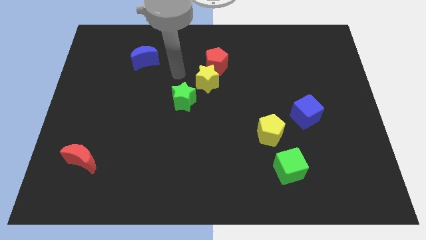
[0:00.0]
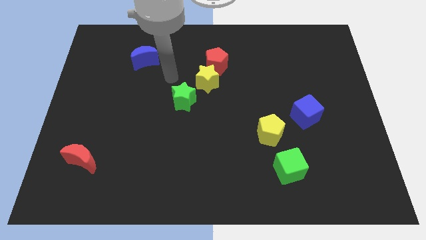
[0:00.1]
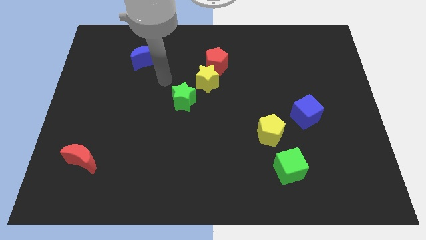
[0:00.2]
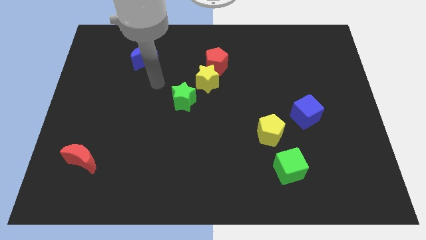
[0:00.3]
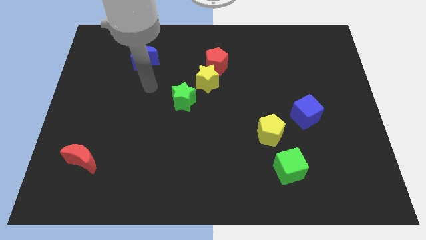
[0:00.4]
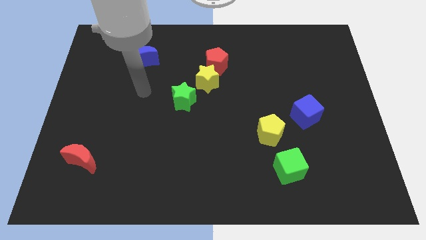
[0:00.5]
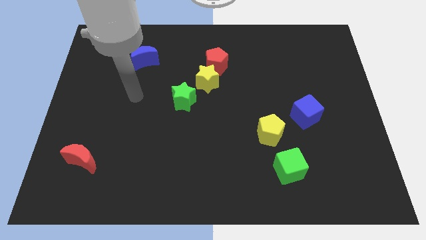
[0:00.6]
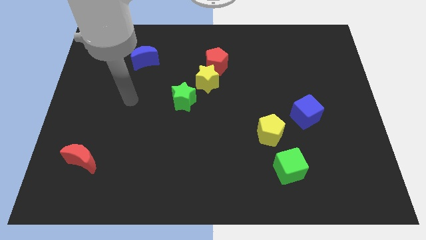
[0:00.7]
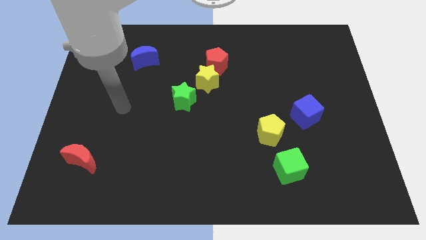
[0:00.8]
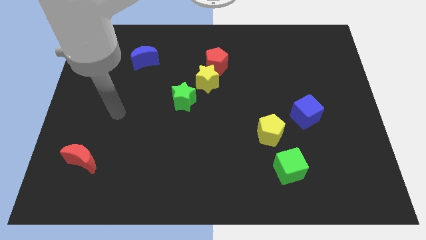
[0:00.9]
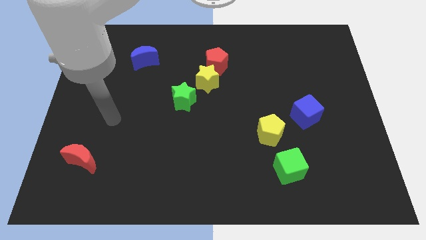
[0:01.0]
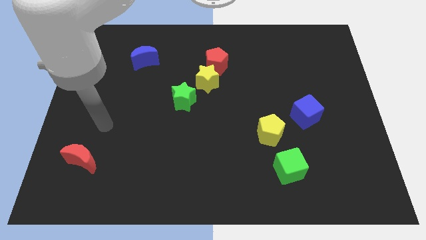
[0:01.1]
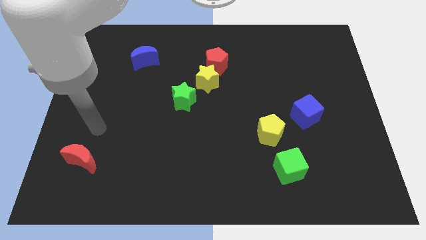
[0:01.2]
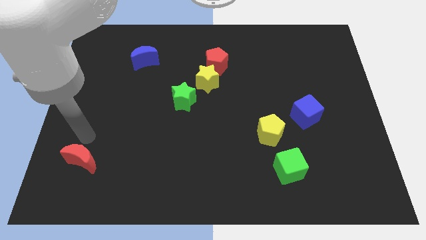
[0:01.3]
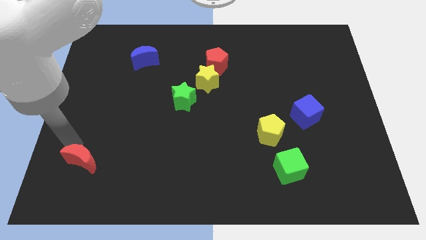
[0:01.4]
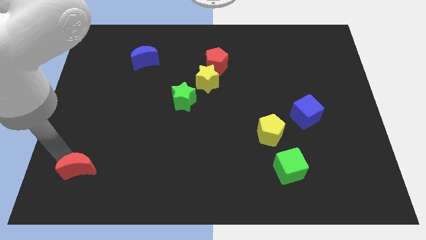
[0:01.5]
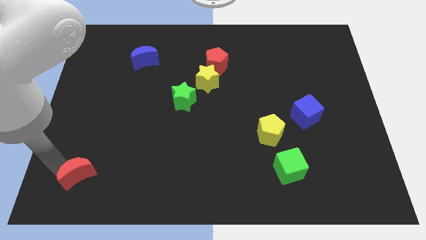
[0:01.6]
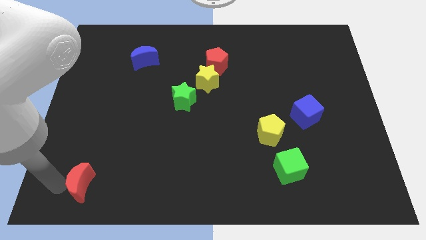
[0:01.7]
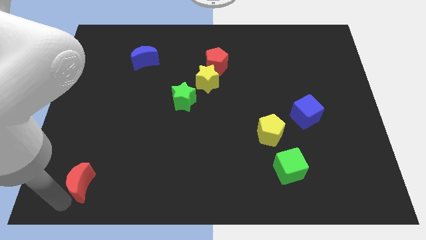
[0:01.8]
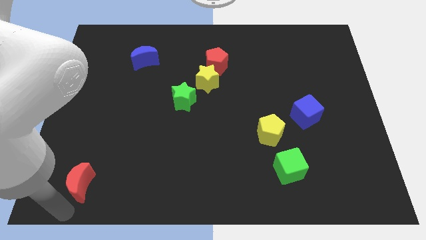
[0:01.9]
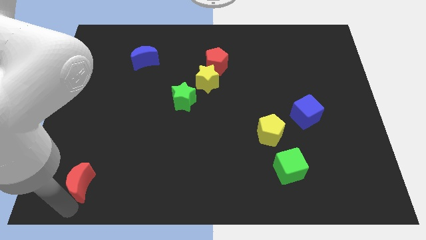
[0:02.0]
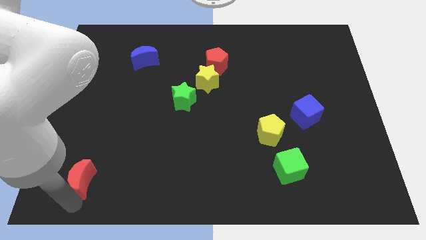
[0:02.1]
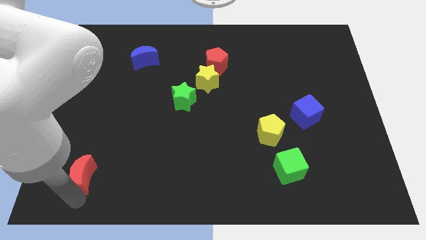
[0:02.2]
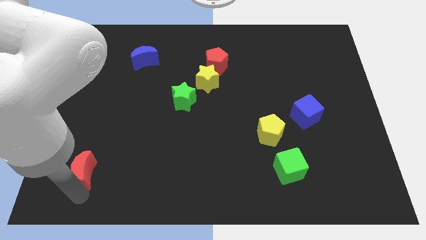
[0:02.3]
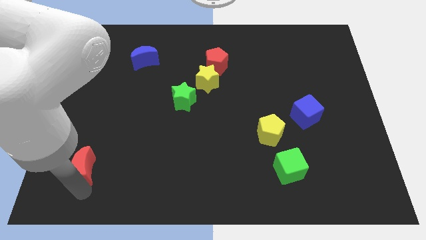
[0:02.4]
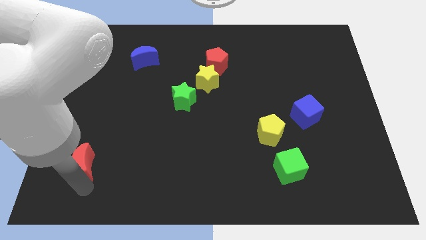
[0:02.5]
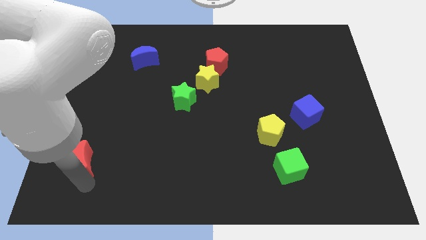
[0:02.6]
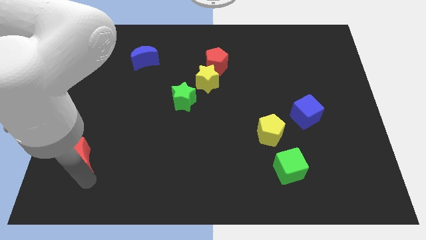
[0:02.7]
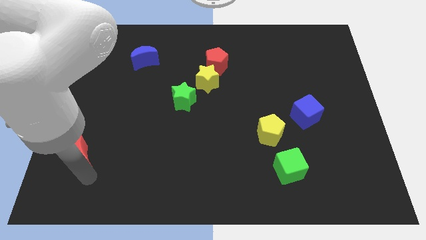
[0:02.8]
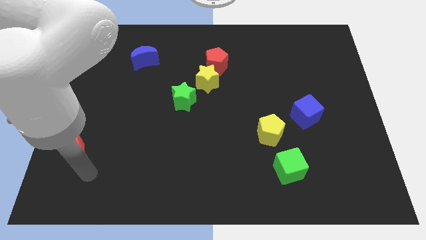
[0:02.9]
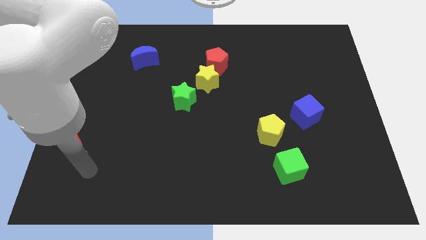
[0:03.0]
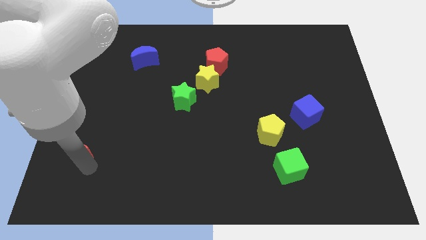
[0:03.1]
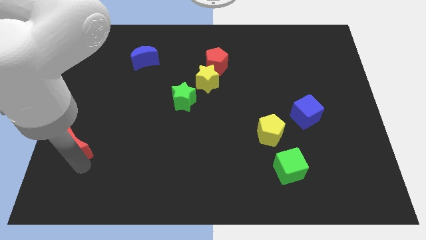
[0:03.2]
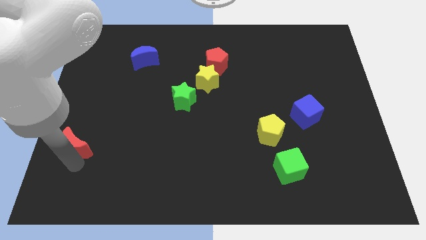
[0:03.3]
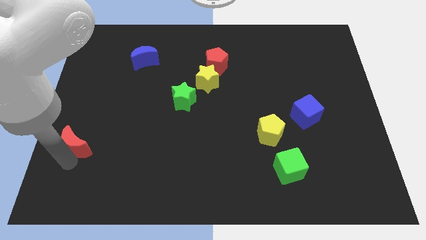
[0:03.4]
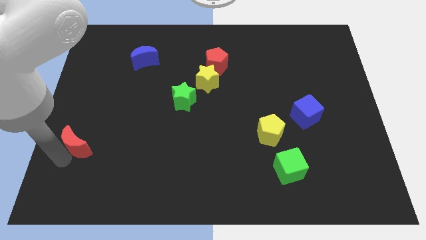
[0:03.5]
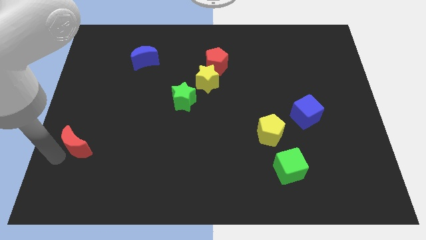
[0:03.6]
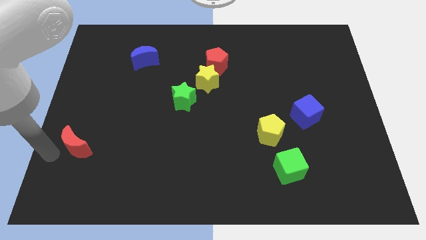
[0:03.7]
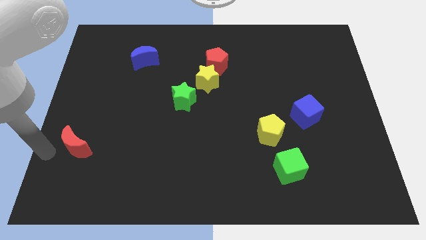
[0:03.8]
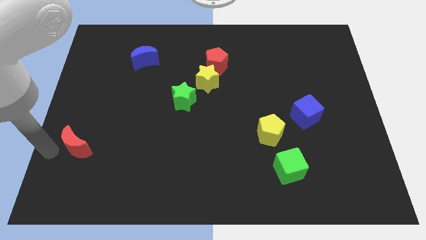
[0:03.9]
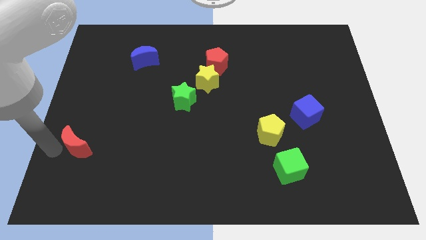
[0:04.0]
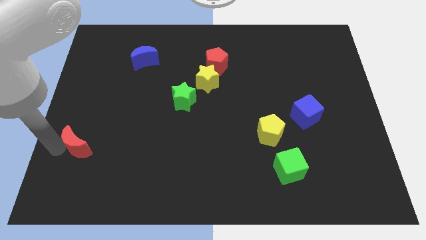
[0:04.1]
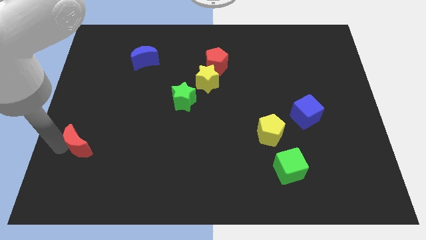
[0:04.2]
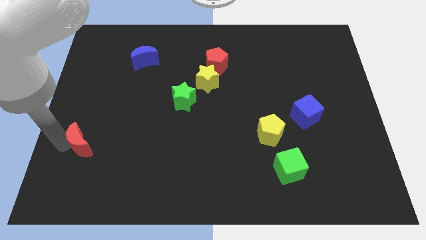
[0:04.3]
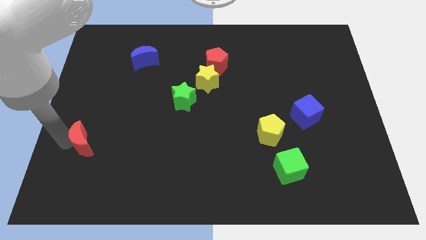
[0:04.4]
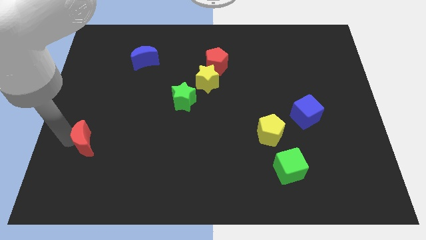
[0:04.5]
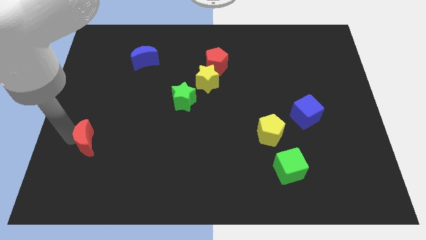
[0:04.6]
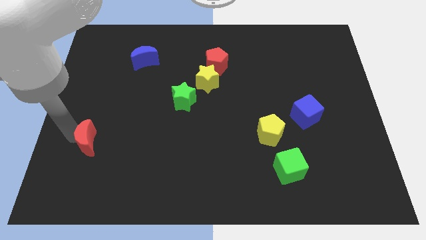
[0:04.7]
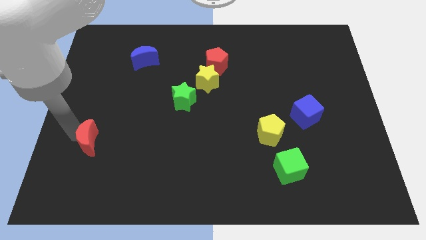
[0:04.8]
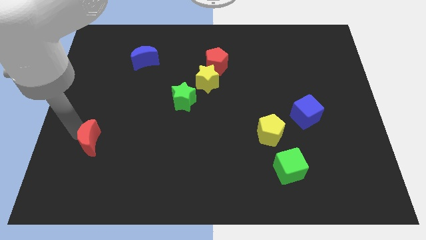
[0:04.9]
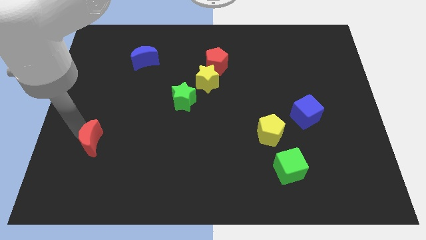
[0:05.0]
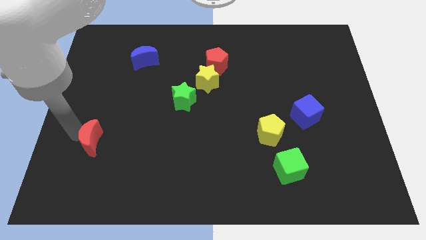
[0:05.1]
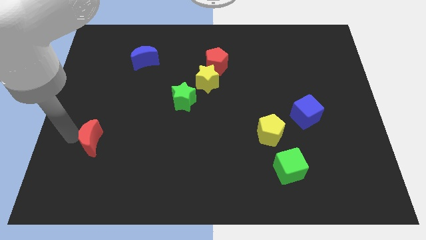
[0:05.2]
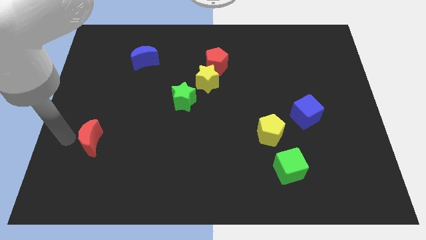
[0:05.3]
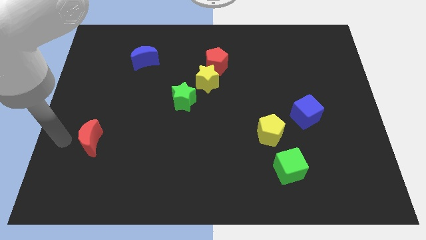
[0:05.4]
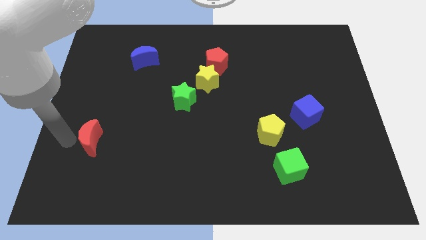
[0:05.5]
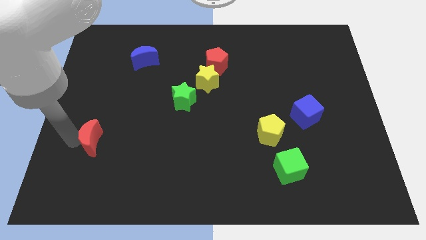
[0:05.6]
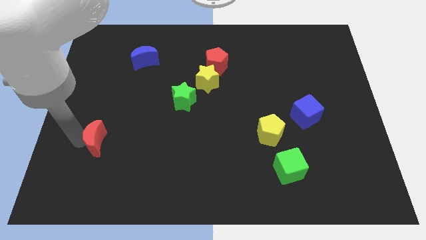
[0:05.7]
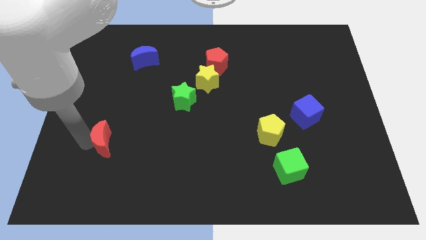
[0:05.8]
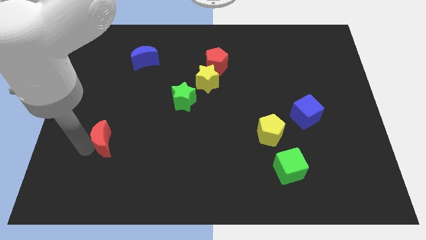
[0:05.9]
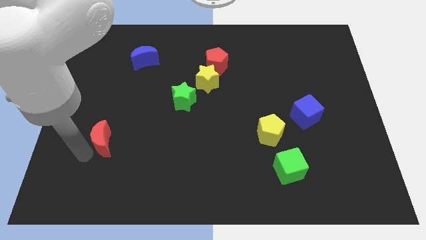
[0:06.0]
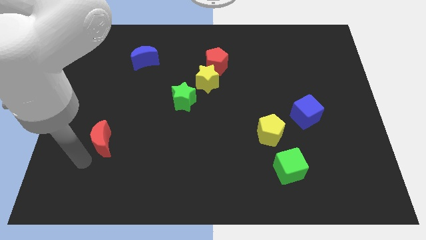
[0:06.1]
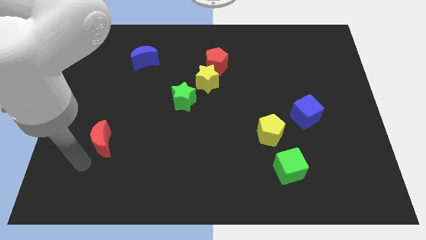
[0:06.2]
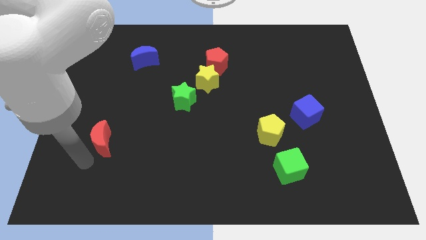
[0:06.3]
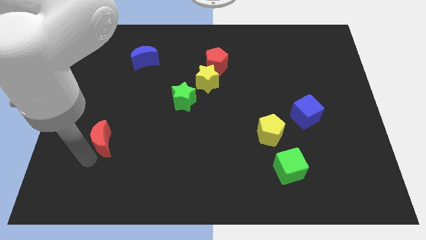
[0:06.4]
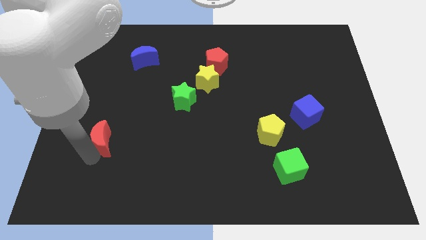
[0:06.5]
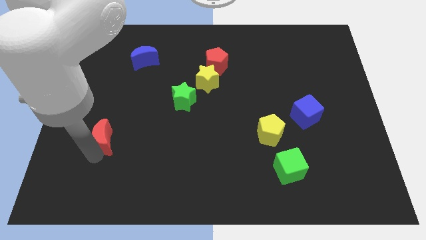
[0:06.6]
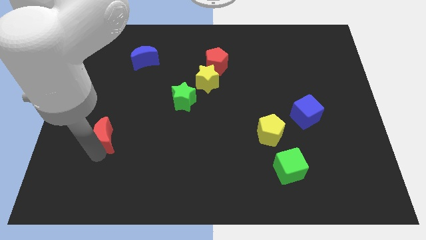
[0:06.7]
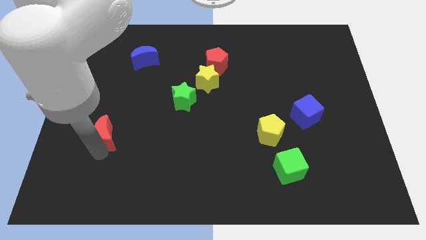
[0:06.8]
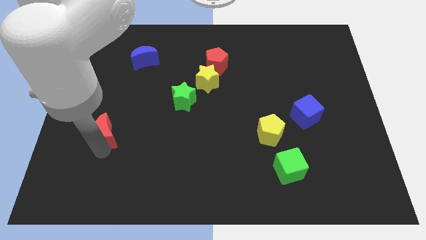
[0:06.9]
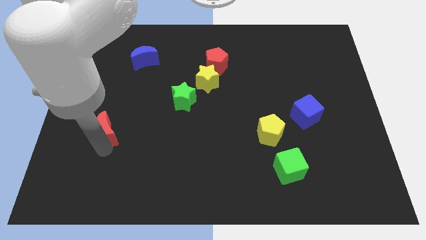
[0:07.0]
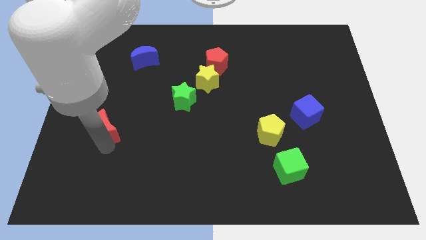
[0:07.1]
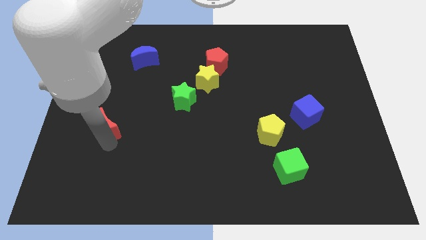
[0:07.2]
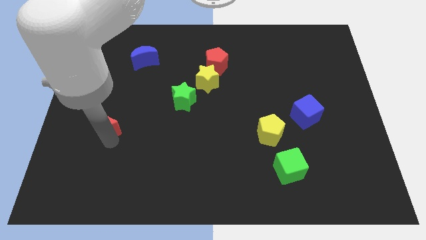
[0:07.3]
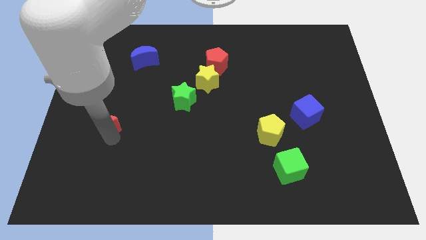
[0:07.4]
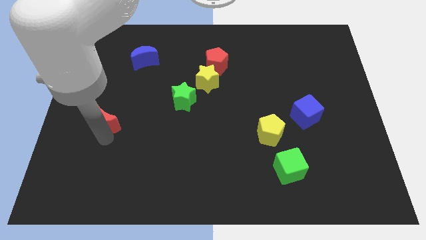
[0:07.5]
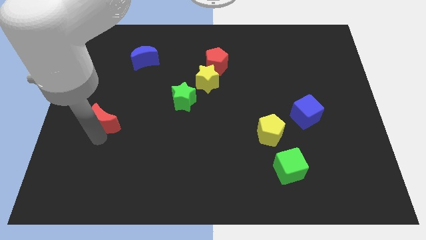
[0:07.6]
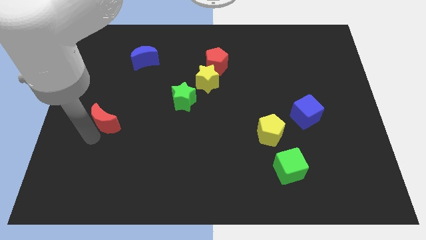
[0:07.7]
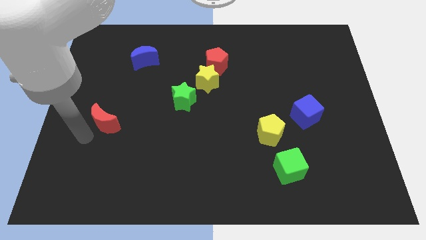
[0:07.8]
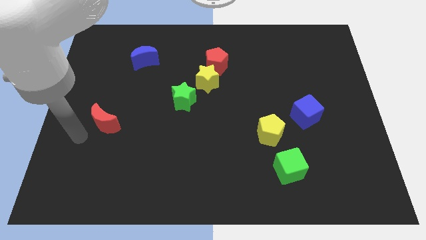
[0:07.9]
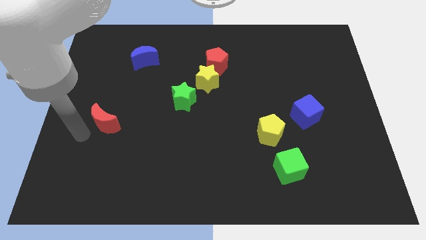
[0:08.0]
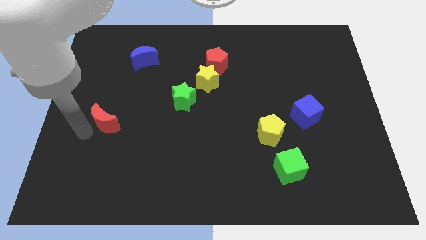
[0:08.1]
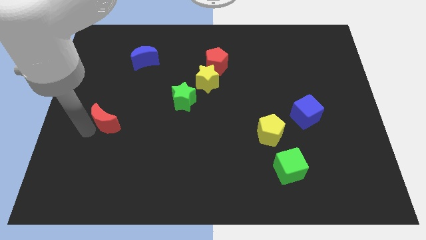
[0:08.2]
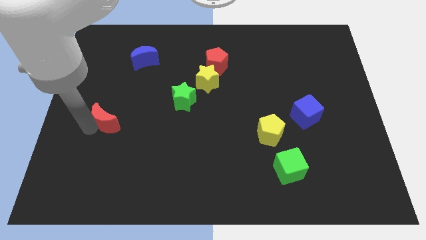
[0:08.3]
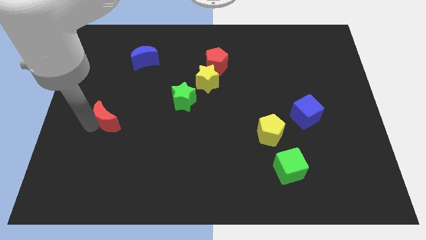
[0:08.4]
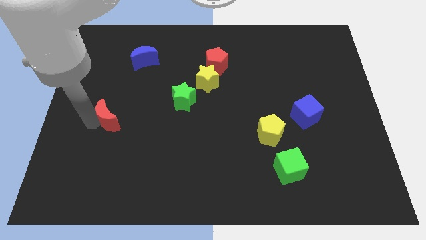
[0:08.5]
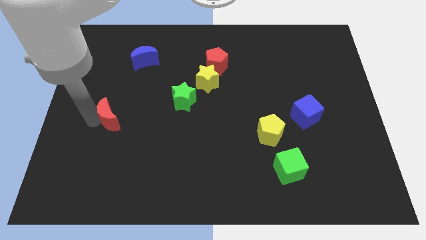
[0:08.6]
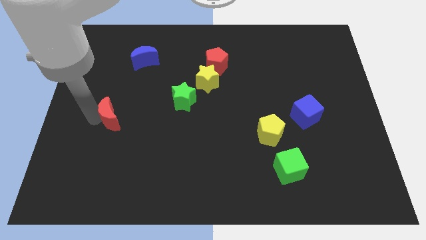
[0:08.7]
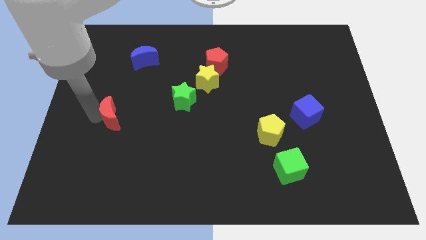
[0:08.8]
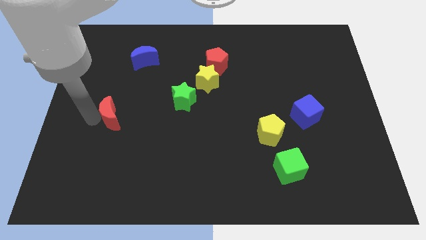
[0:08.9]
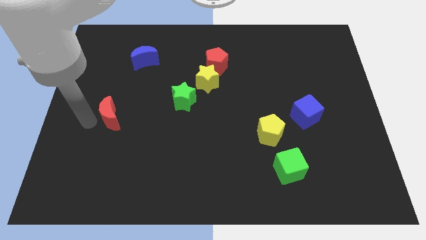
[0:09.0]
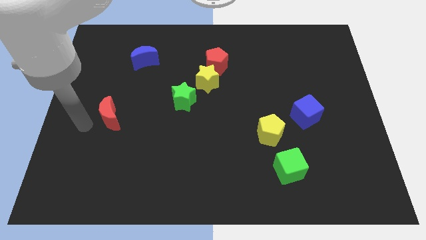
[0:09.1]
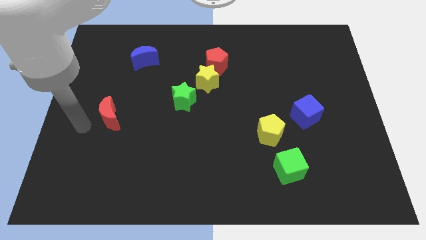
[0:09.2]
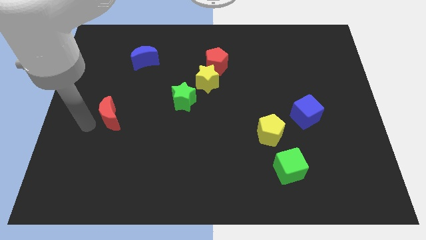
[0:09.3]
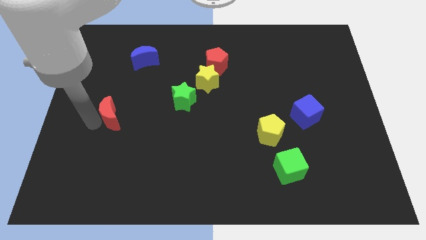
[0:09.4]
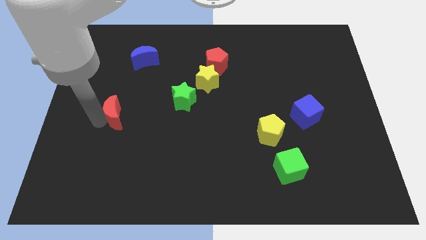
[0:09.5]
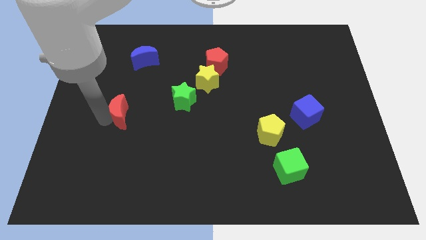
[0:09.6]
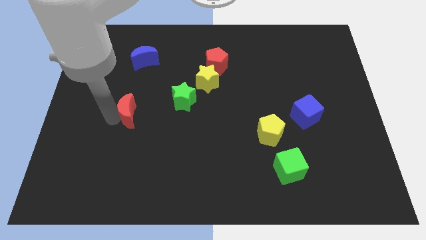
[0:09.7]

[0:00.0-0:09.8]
push the red moon to the left of the green star
